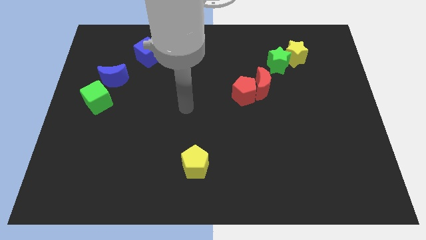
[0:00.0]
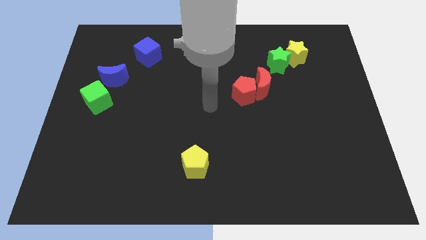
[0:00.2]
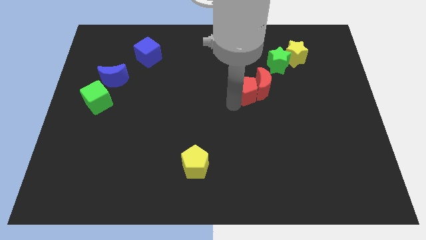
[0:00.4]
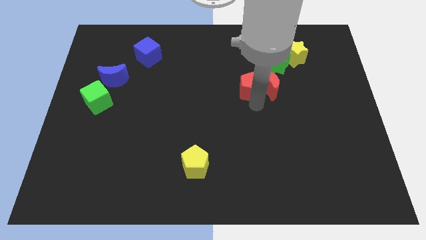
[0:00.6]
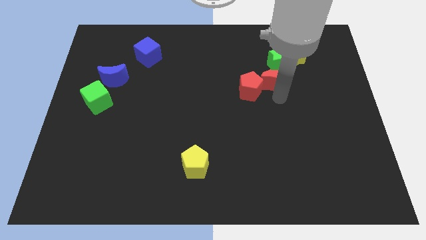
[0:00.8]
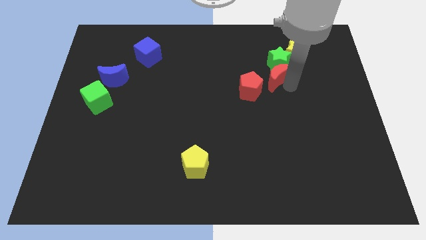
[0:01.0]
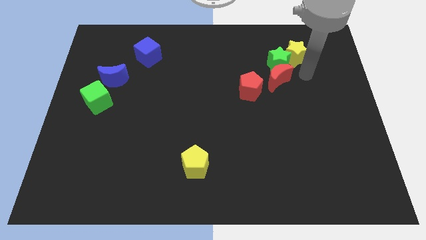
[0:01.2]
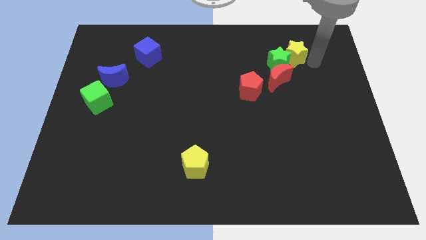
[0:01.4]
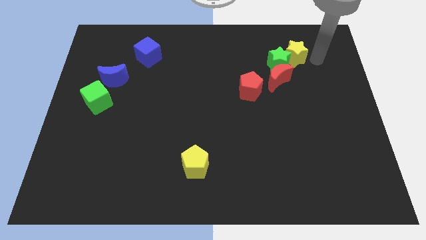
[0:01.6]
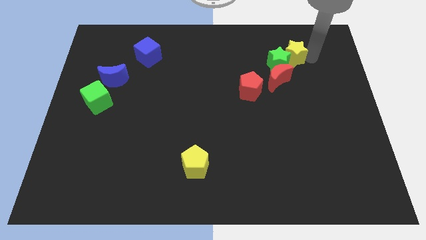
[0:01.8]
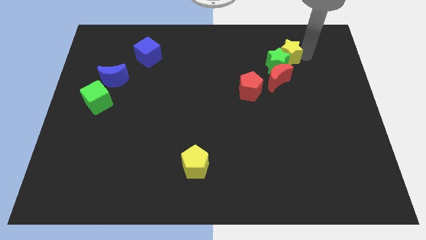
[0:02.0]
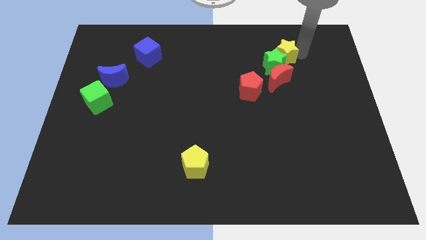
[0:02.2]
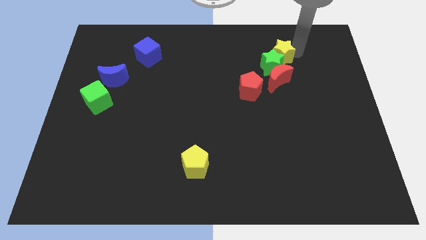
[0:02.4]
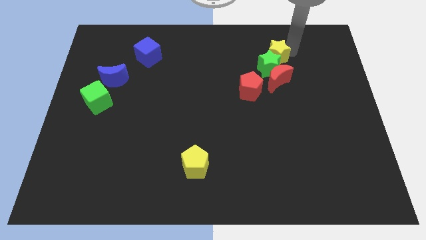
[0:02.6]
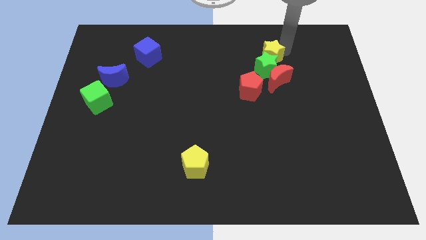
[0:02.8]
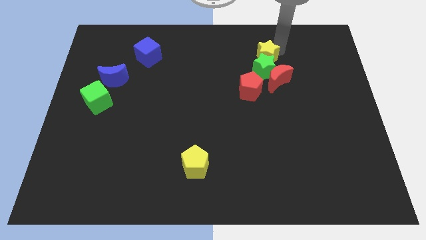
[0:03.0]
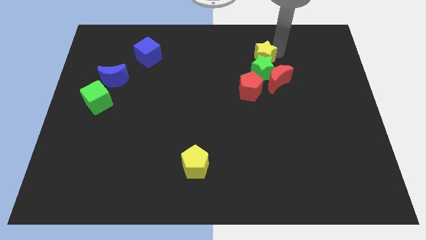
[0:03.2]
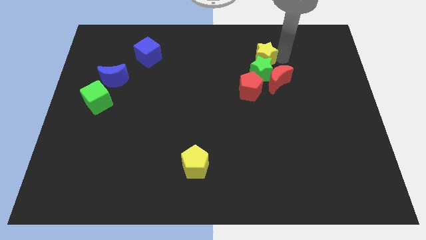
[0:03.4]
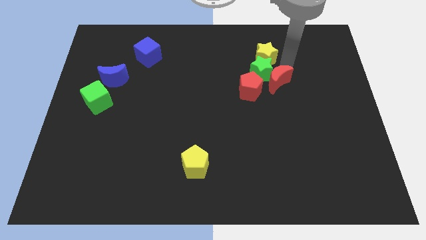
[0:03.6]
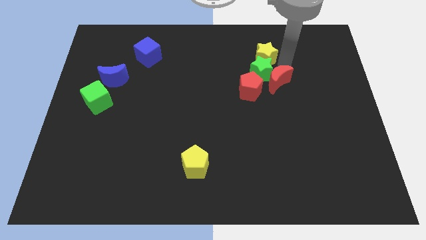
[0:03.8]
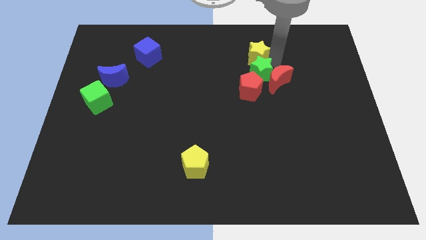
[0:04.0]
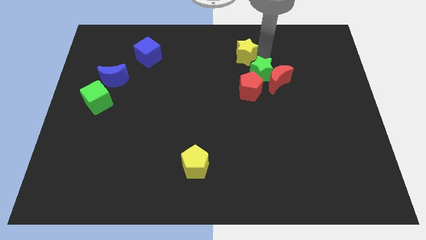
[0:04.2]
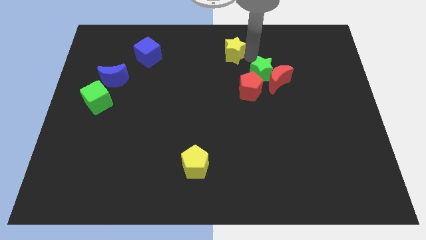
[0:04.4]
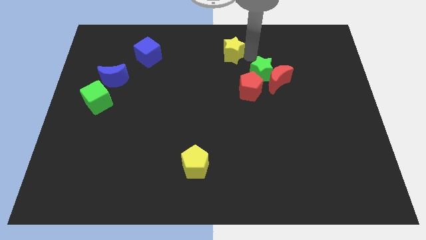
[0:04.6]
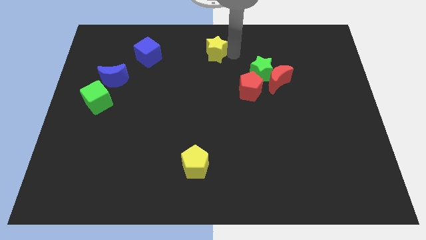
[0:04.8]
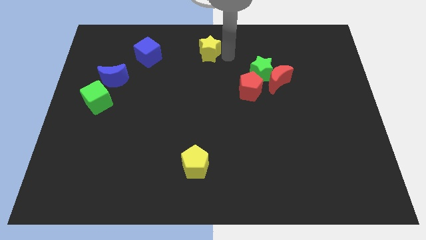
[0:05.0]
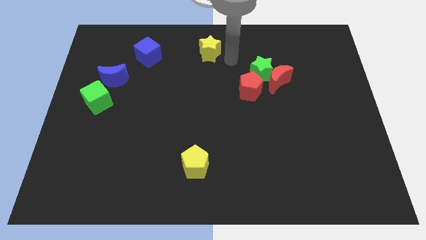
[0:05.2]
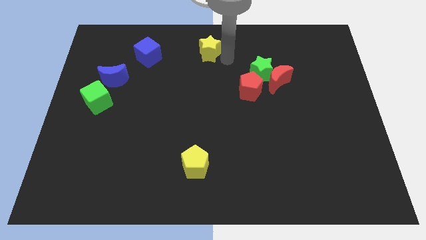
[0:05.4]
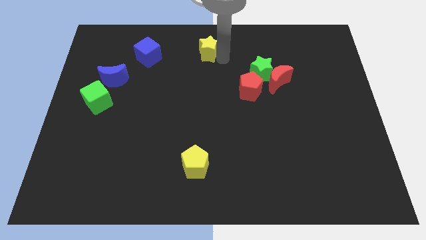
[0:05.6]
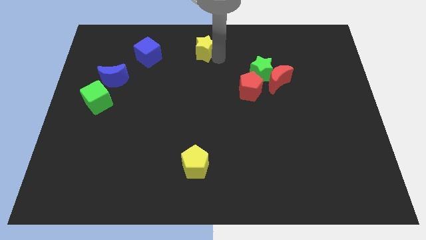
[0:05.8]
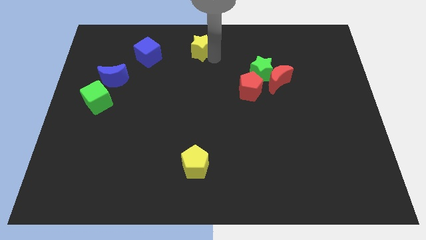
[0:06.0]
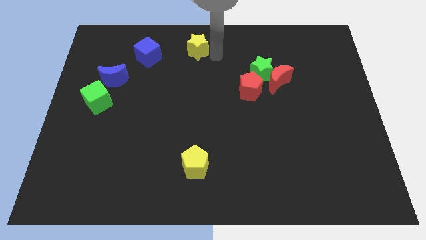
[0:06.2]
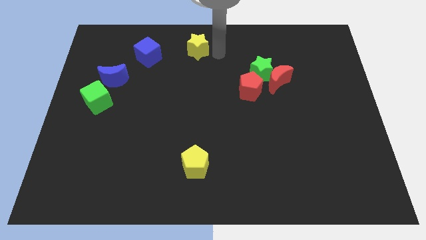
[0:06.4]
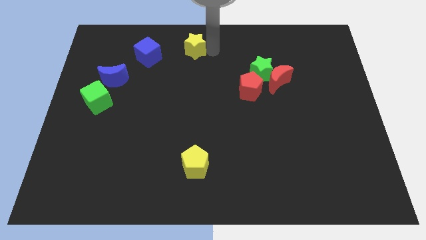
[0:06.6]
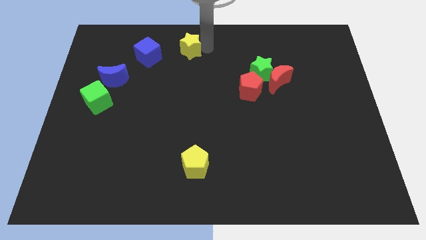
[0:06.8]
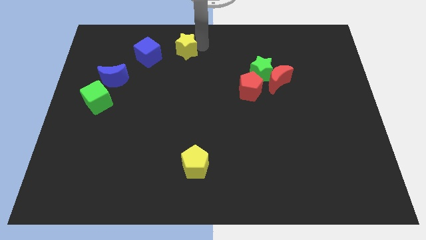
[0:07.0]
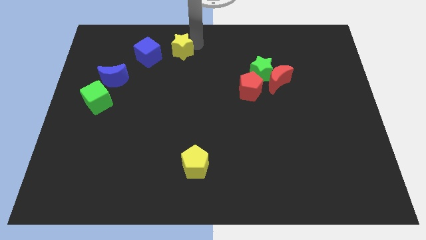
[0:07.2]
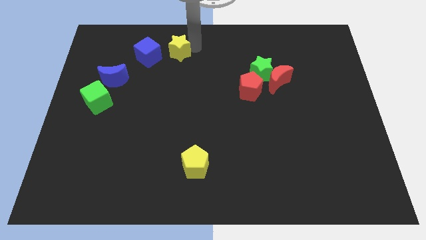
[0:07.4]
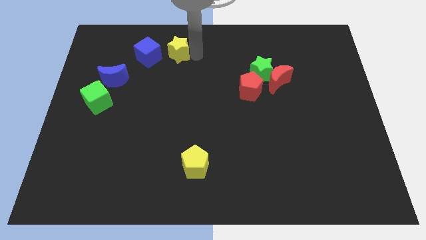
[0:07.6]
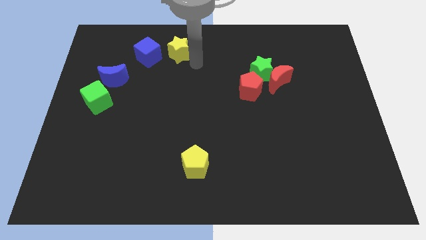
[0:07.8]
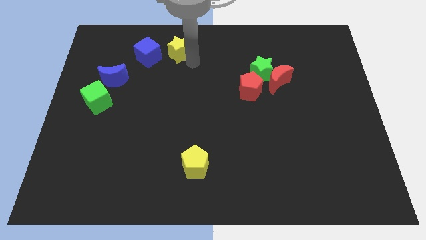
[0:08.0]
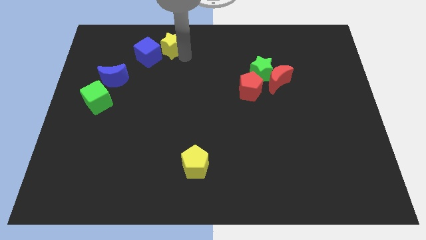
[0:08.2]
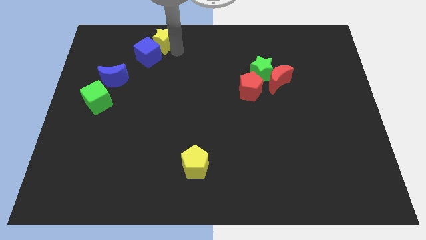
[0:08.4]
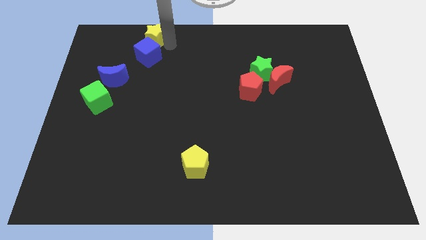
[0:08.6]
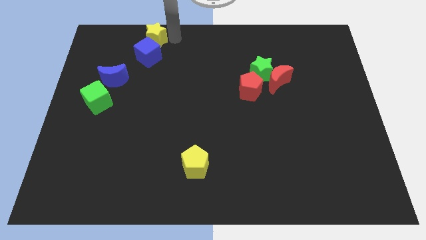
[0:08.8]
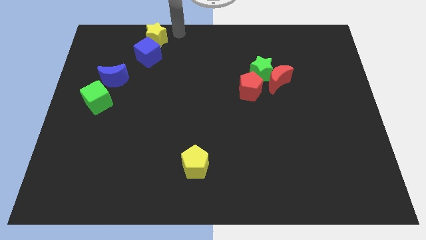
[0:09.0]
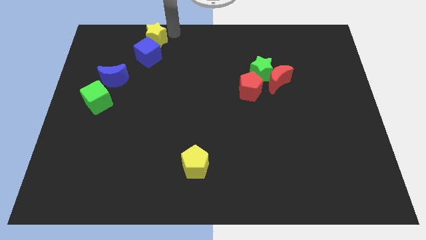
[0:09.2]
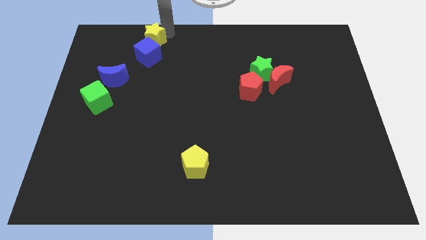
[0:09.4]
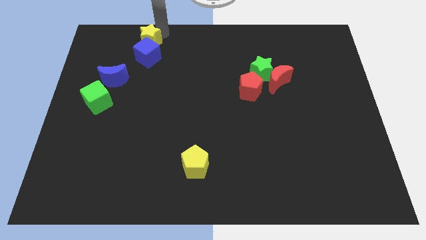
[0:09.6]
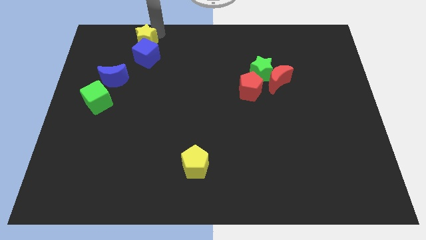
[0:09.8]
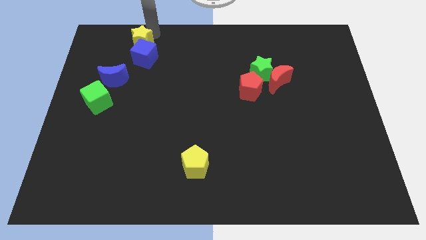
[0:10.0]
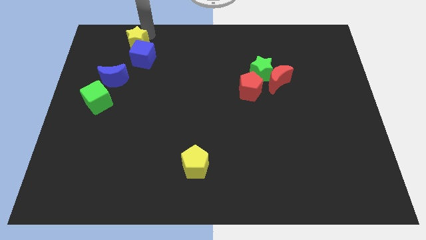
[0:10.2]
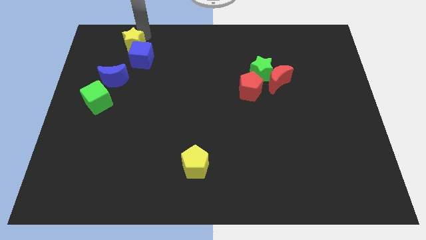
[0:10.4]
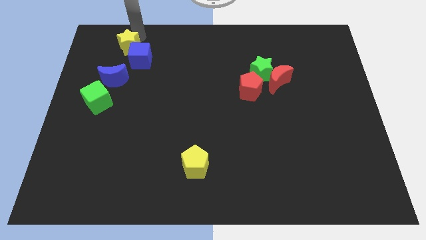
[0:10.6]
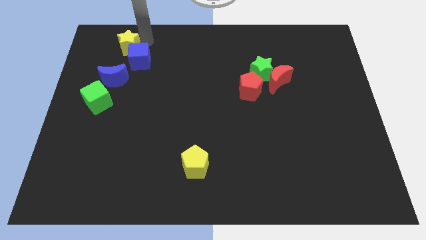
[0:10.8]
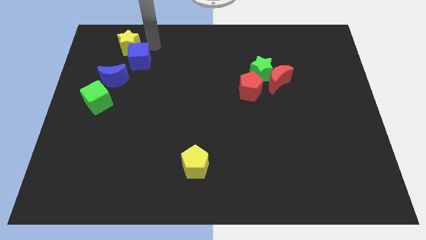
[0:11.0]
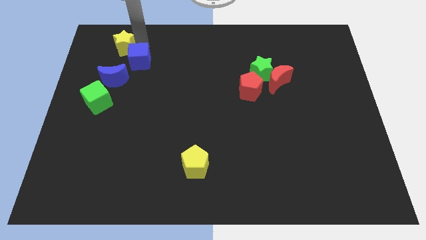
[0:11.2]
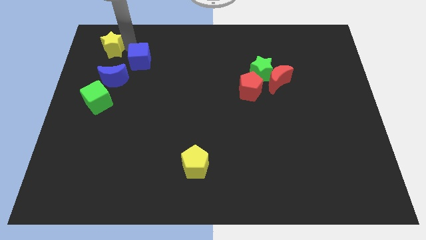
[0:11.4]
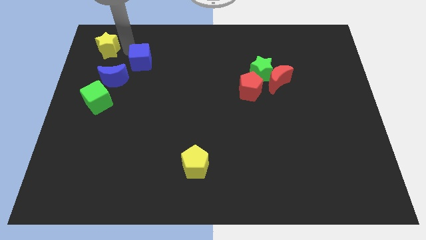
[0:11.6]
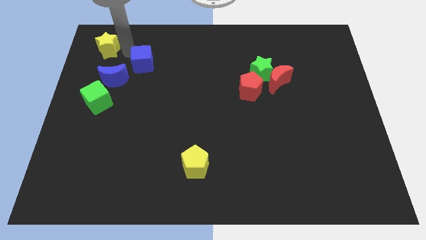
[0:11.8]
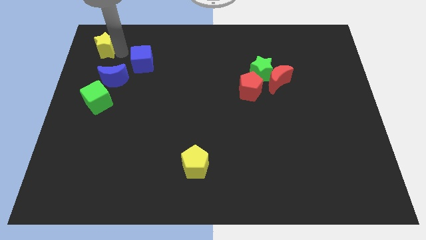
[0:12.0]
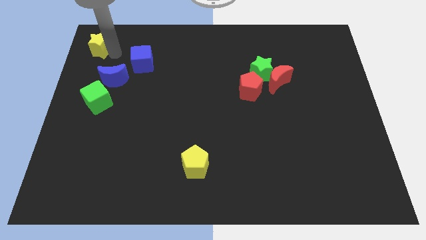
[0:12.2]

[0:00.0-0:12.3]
move the yellow star to the top left
